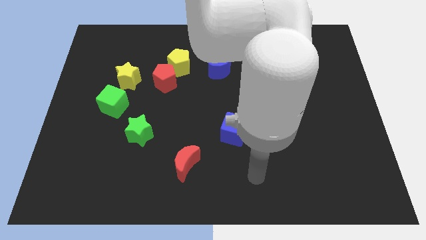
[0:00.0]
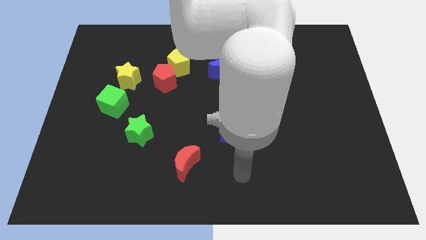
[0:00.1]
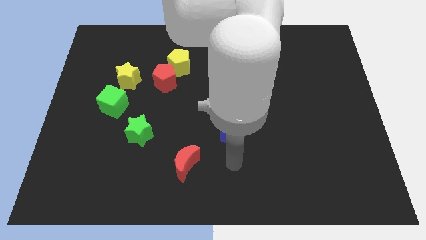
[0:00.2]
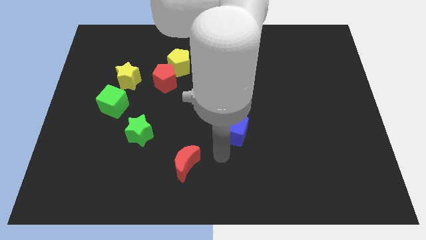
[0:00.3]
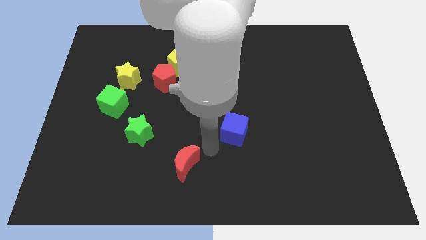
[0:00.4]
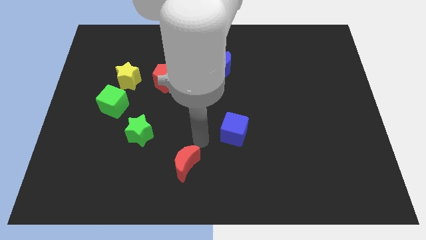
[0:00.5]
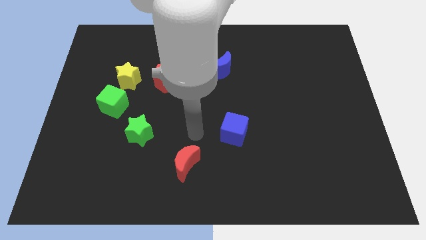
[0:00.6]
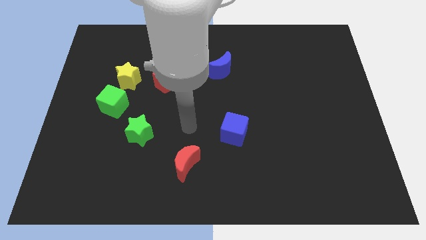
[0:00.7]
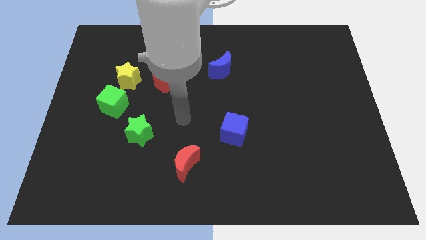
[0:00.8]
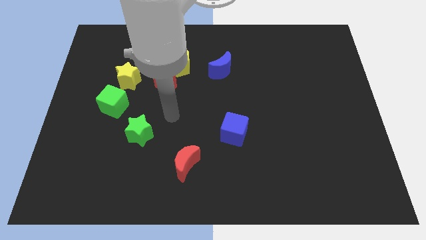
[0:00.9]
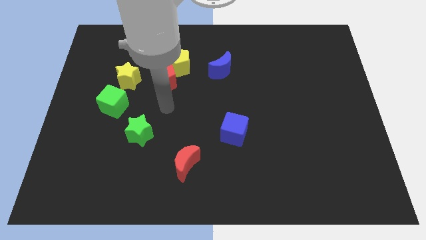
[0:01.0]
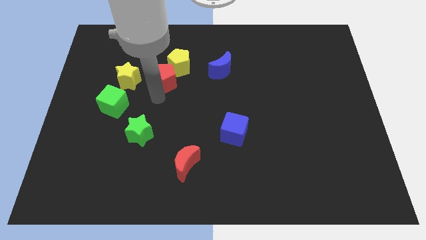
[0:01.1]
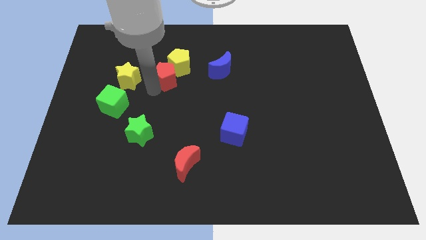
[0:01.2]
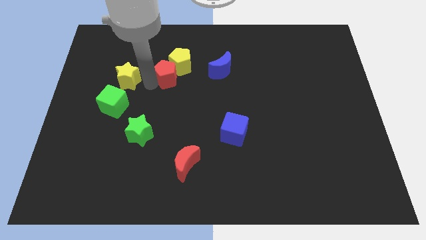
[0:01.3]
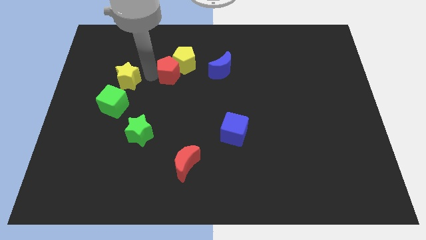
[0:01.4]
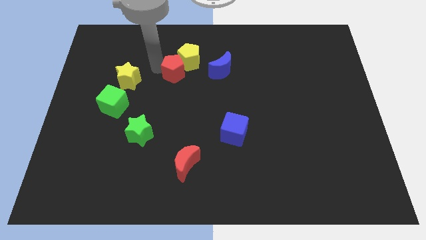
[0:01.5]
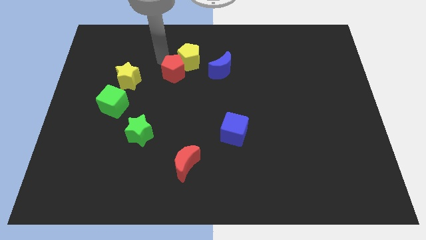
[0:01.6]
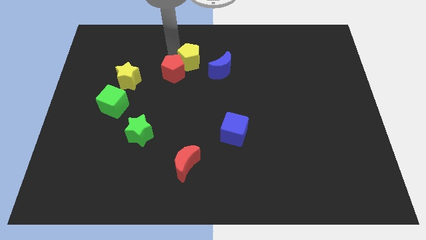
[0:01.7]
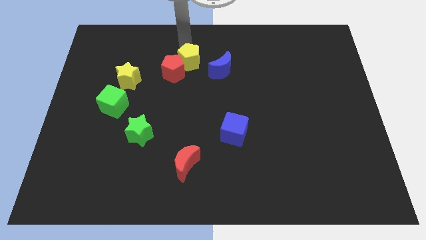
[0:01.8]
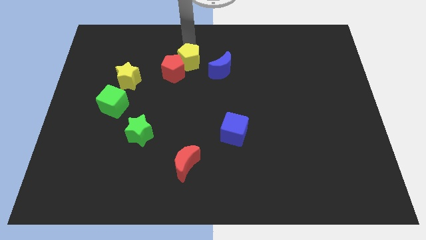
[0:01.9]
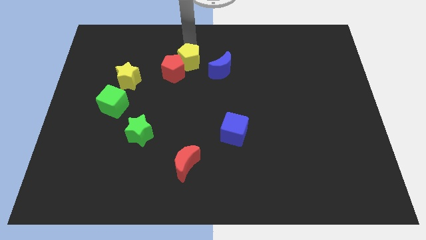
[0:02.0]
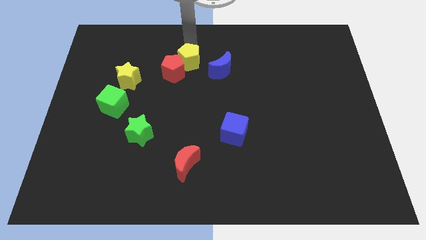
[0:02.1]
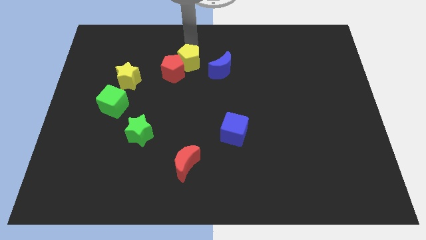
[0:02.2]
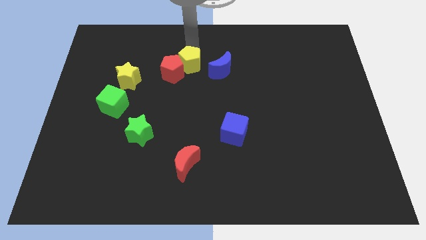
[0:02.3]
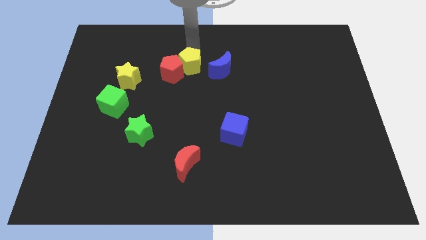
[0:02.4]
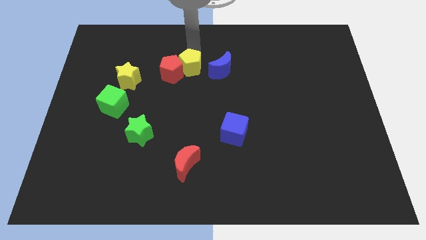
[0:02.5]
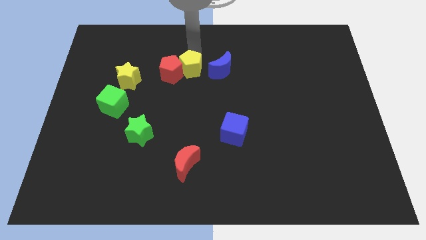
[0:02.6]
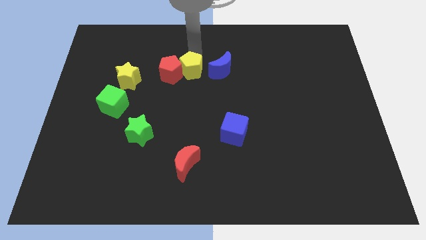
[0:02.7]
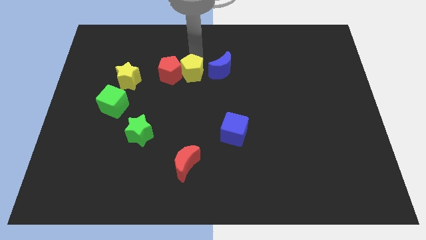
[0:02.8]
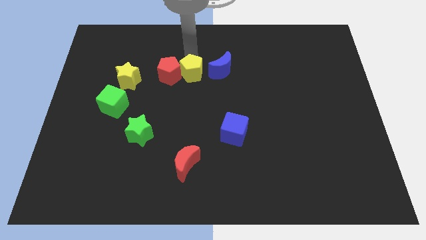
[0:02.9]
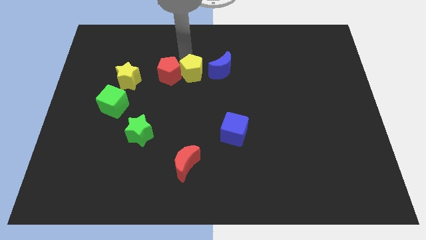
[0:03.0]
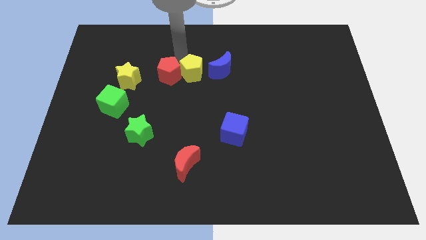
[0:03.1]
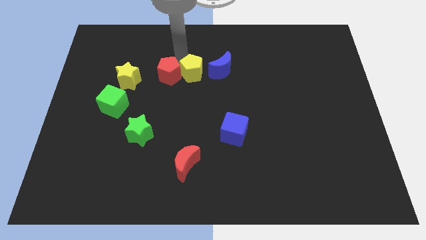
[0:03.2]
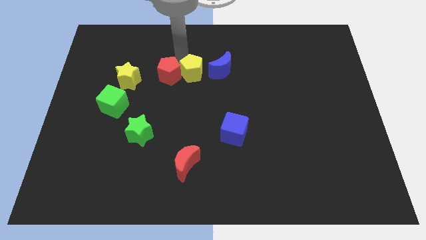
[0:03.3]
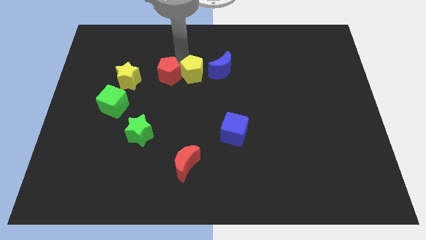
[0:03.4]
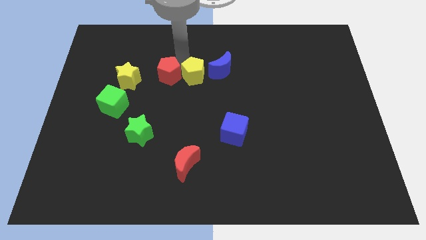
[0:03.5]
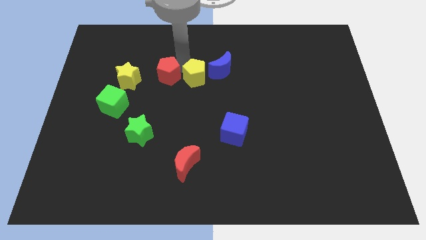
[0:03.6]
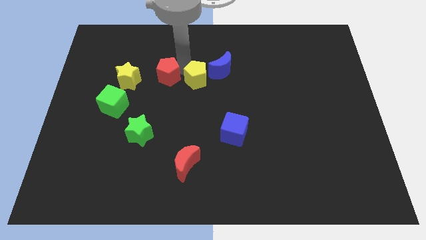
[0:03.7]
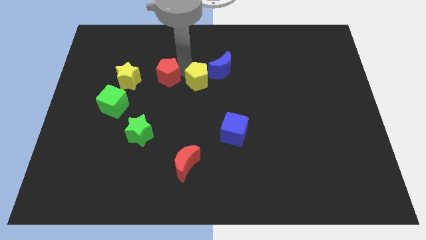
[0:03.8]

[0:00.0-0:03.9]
move the yellow pentagon a little down and to the right diagonally

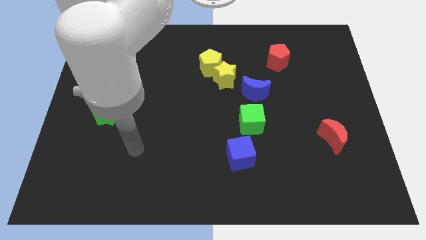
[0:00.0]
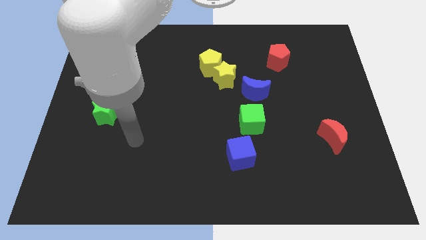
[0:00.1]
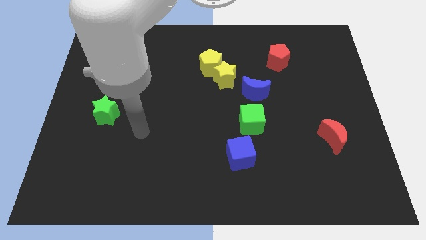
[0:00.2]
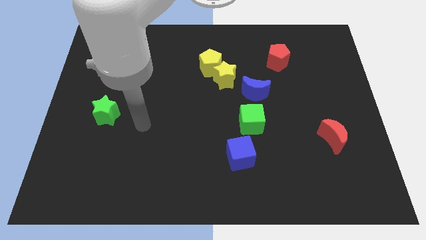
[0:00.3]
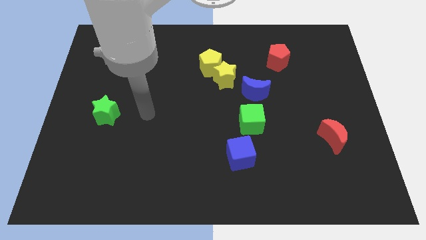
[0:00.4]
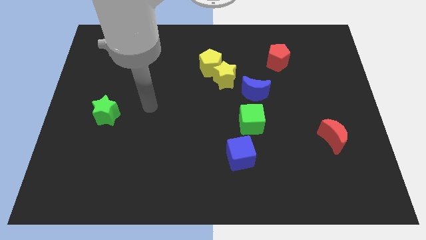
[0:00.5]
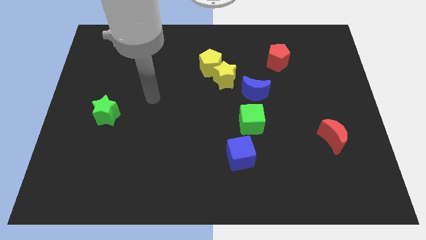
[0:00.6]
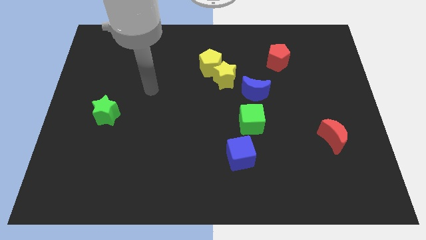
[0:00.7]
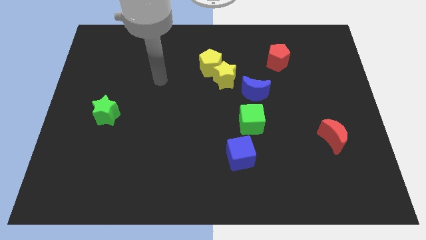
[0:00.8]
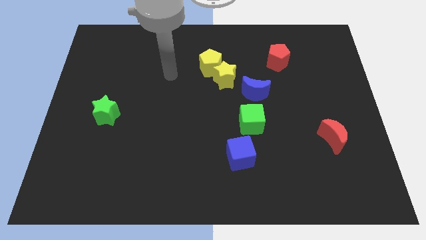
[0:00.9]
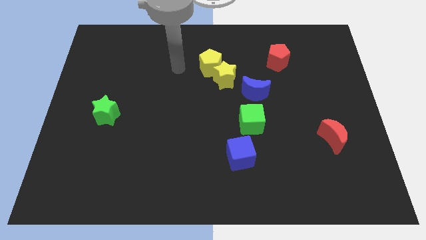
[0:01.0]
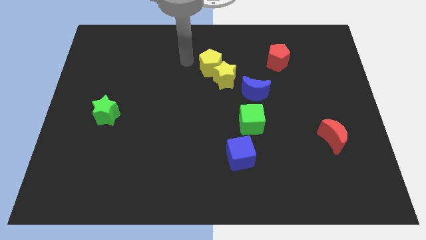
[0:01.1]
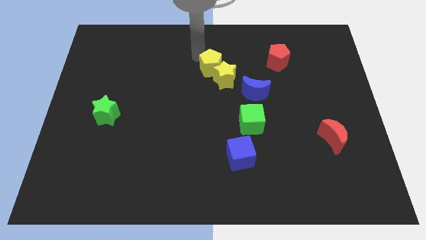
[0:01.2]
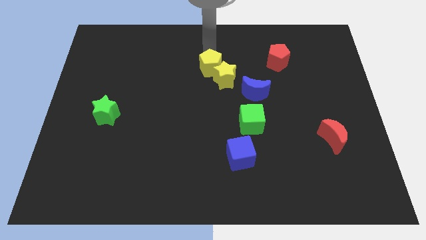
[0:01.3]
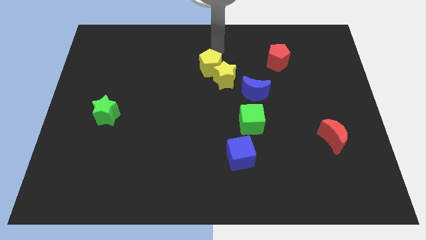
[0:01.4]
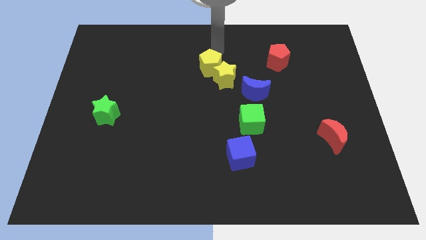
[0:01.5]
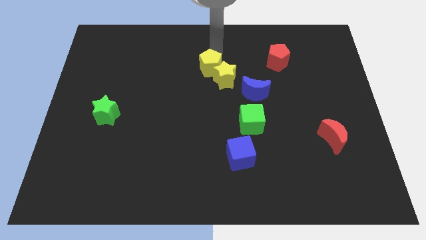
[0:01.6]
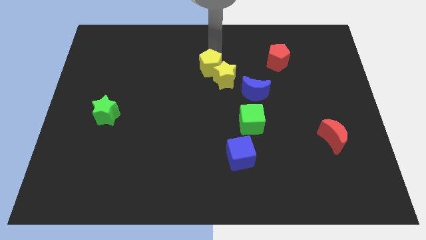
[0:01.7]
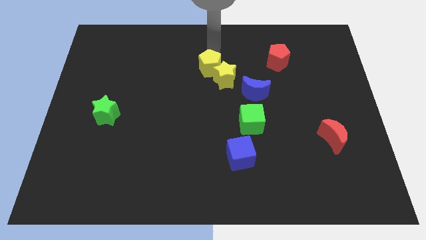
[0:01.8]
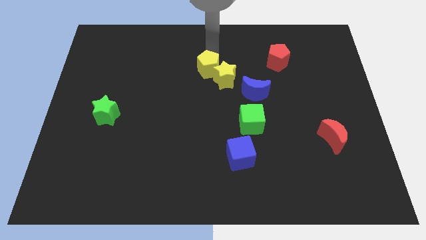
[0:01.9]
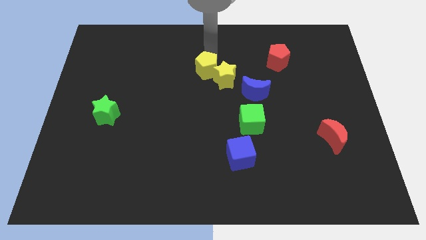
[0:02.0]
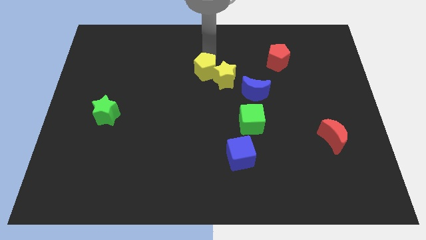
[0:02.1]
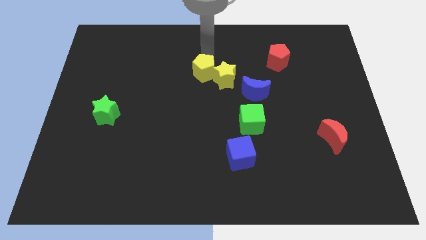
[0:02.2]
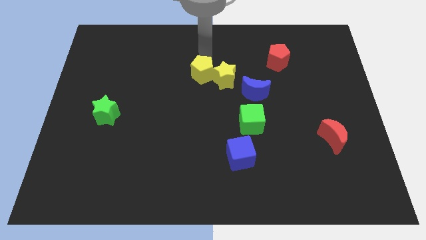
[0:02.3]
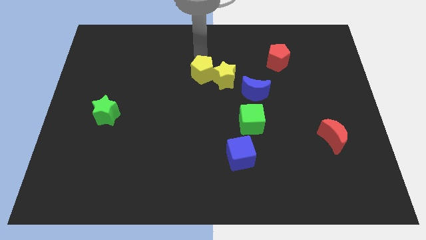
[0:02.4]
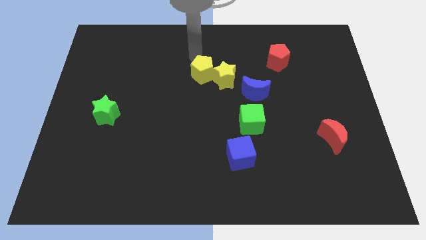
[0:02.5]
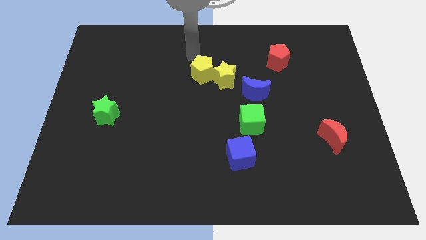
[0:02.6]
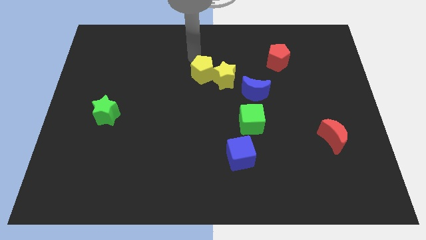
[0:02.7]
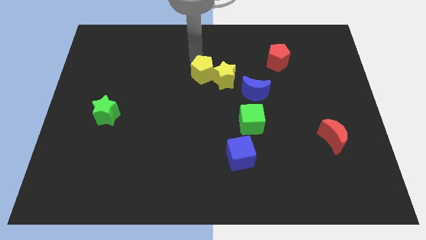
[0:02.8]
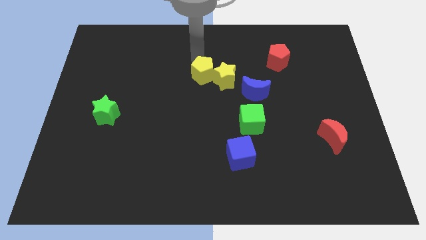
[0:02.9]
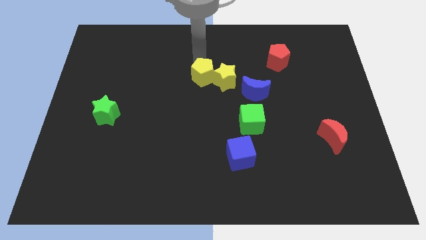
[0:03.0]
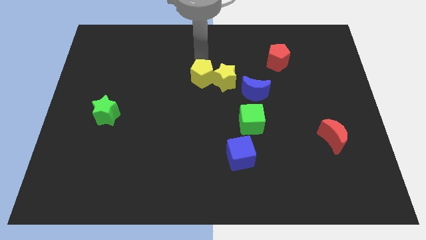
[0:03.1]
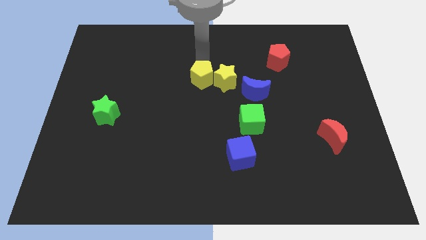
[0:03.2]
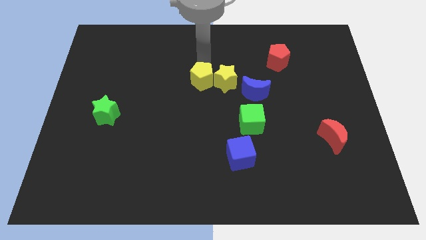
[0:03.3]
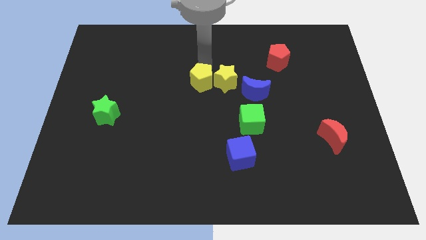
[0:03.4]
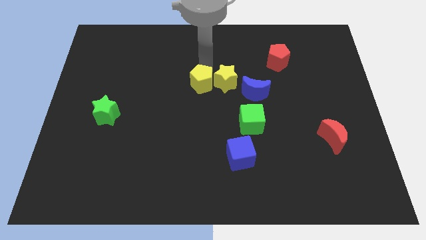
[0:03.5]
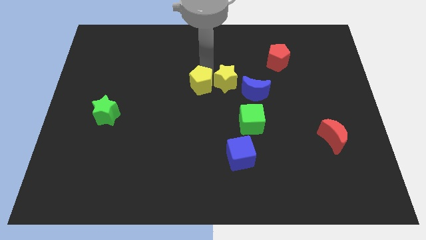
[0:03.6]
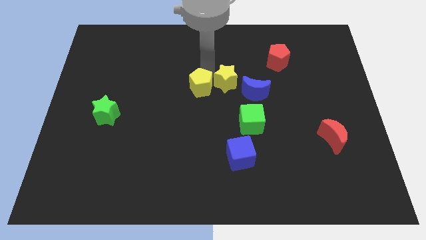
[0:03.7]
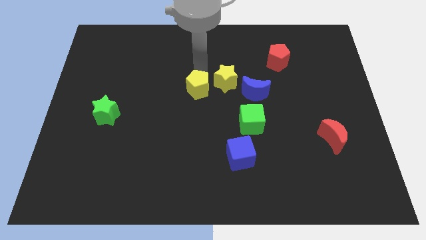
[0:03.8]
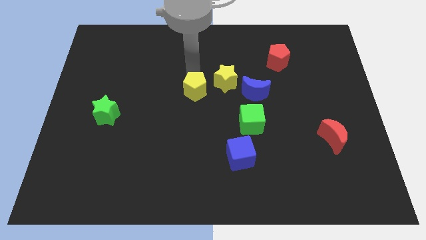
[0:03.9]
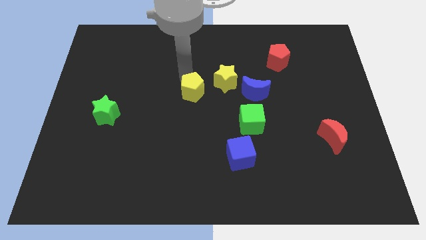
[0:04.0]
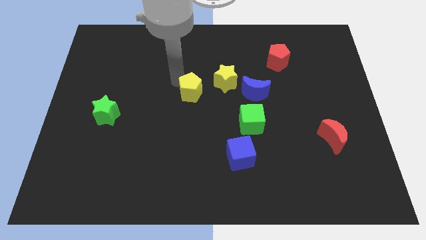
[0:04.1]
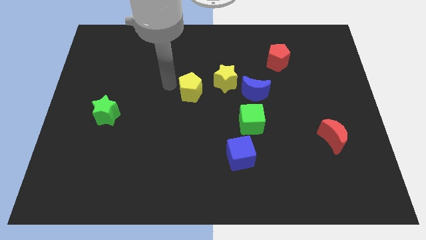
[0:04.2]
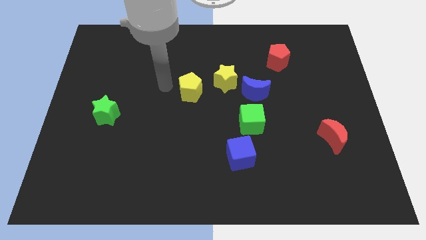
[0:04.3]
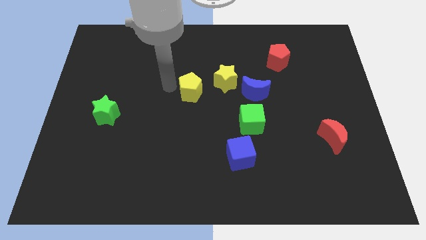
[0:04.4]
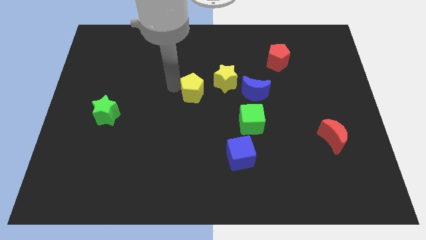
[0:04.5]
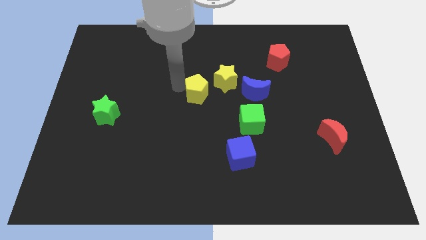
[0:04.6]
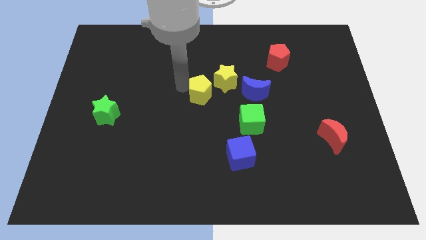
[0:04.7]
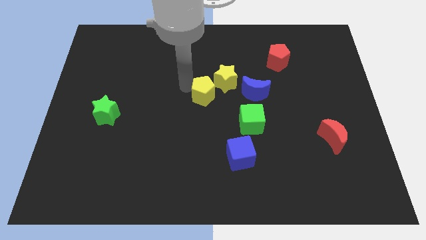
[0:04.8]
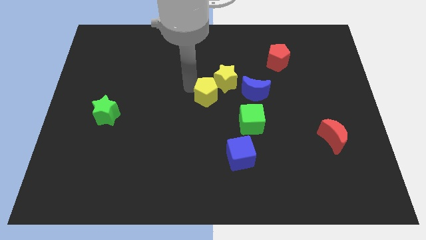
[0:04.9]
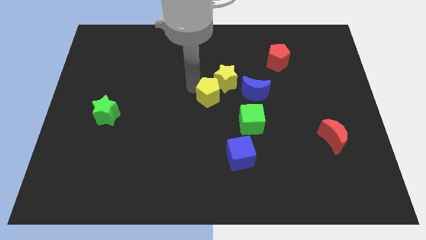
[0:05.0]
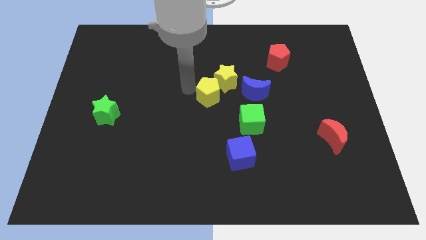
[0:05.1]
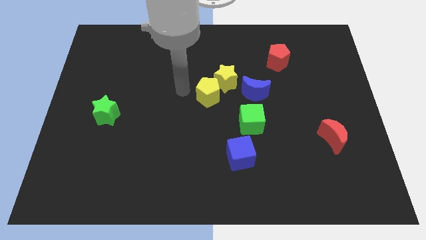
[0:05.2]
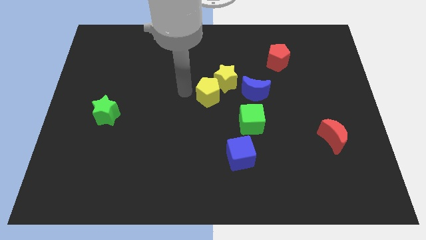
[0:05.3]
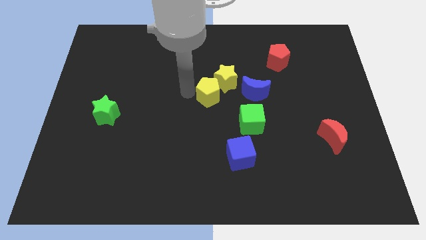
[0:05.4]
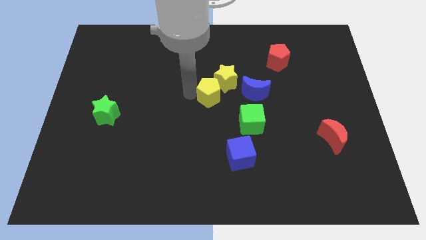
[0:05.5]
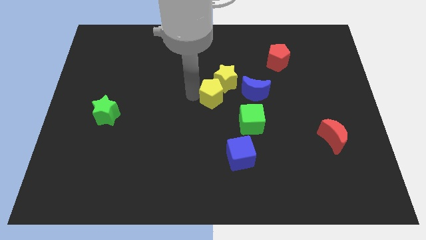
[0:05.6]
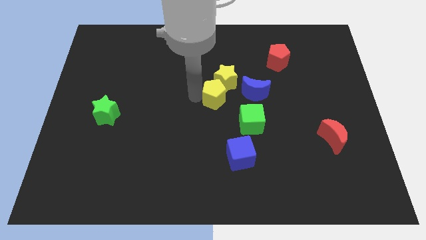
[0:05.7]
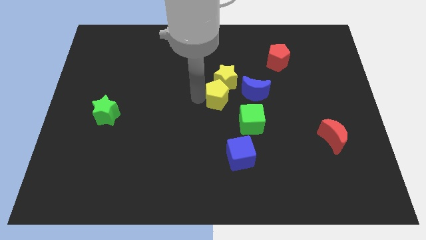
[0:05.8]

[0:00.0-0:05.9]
slide the yellow pentagon a bit downwards and right
